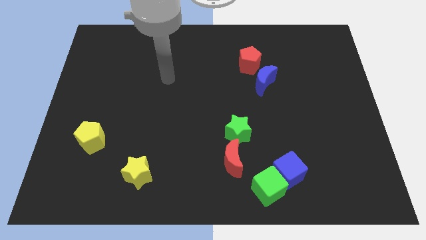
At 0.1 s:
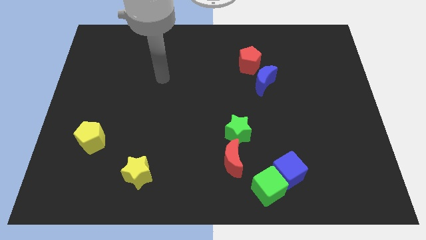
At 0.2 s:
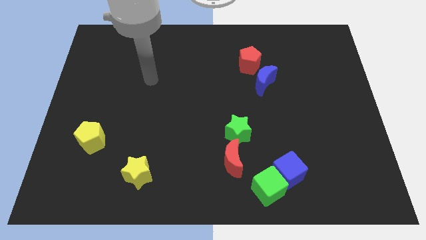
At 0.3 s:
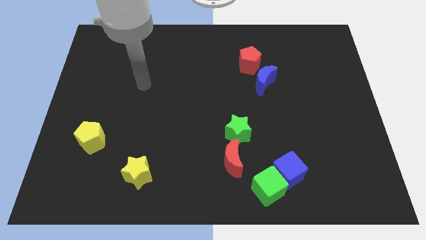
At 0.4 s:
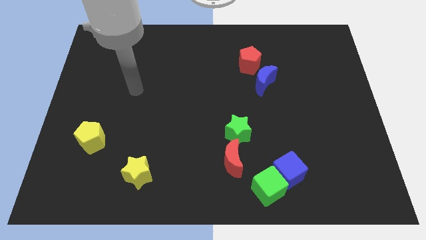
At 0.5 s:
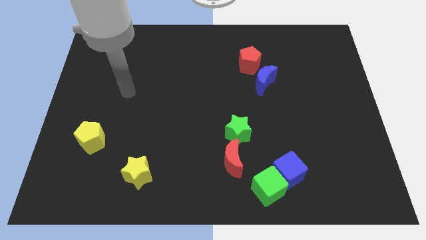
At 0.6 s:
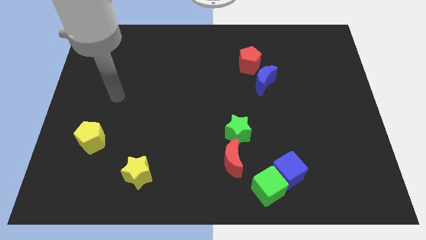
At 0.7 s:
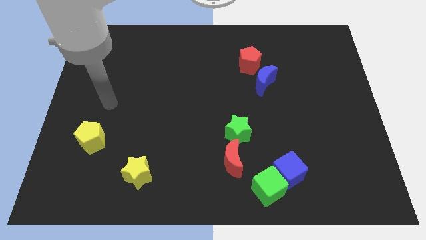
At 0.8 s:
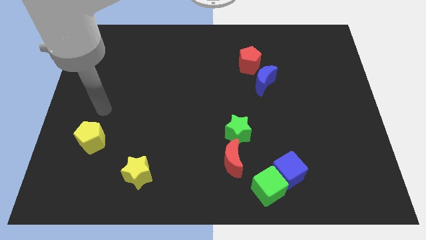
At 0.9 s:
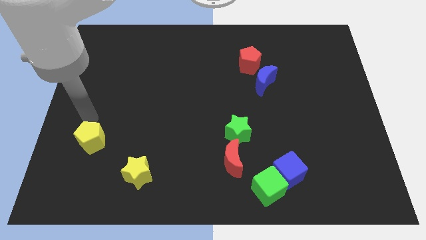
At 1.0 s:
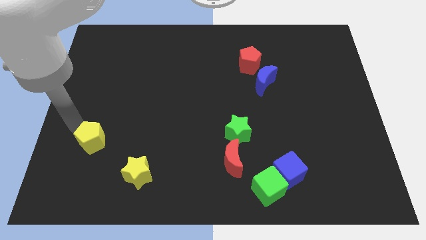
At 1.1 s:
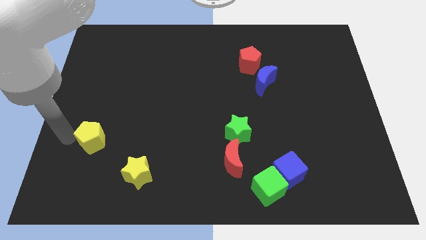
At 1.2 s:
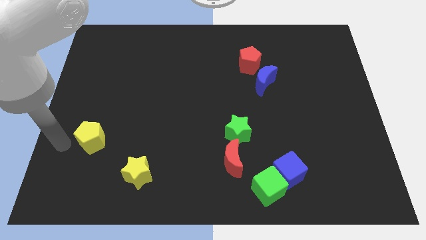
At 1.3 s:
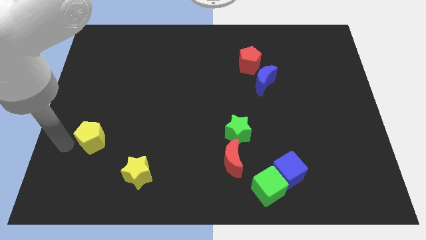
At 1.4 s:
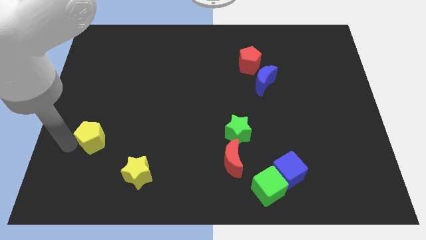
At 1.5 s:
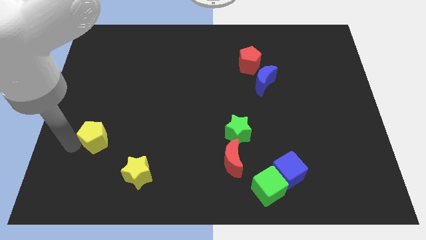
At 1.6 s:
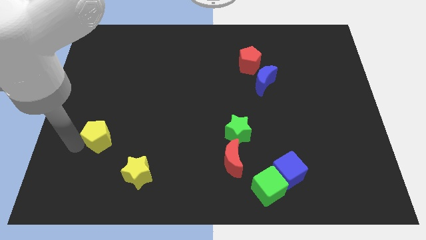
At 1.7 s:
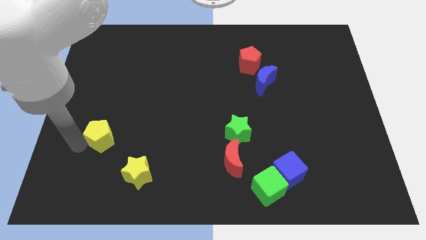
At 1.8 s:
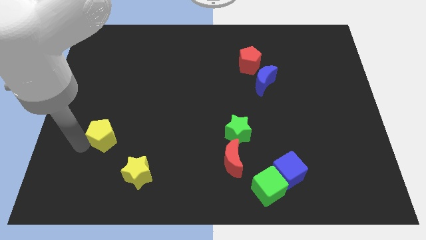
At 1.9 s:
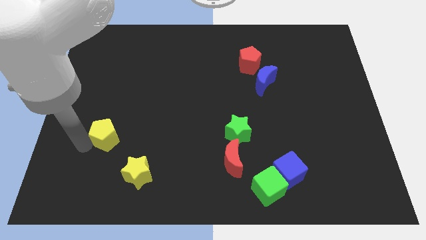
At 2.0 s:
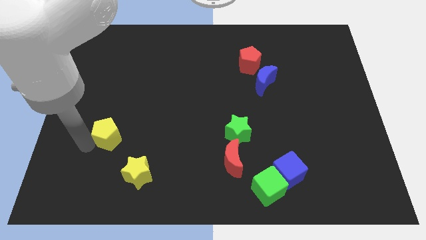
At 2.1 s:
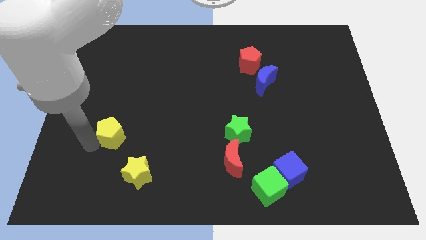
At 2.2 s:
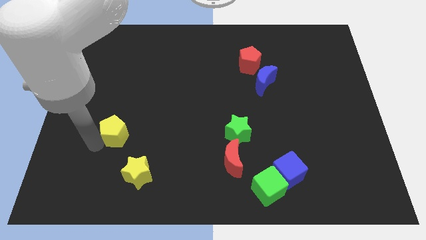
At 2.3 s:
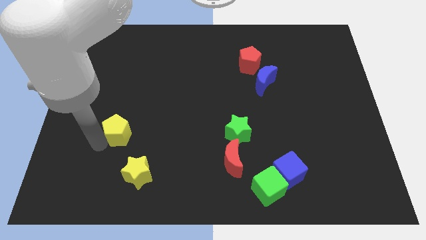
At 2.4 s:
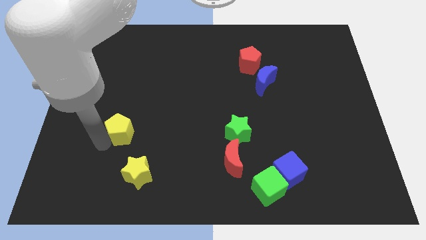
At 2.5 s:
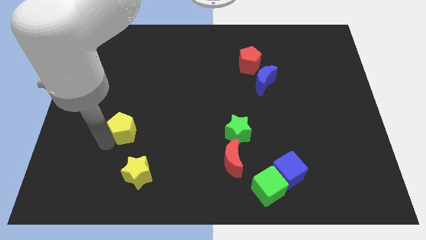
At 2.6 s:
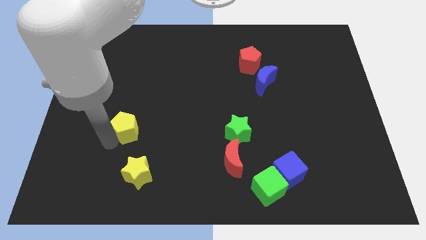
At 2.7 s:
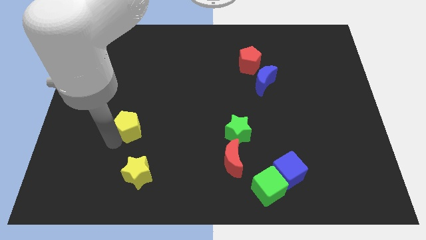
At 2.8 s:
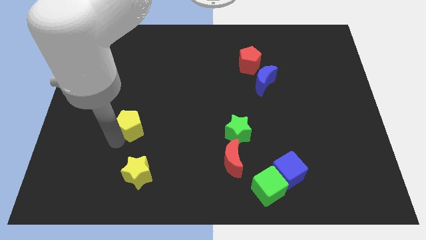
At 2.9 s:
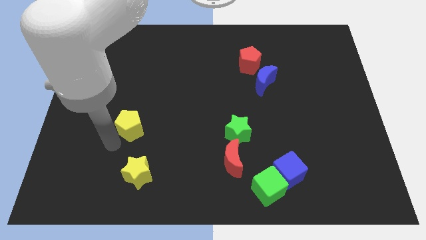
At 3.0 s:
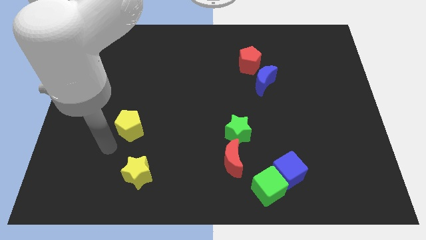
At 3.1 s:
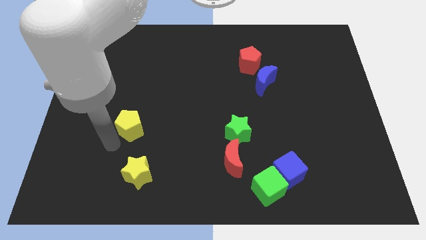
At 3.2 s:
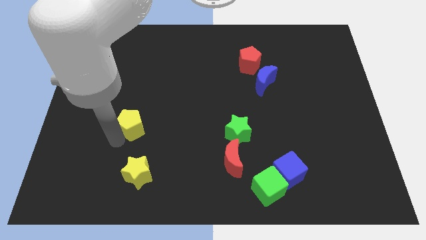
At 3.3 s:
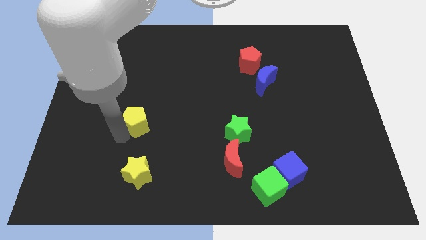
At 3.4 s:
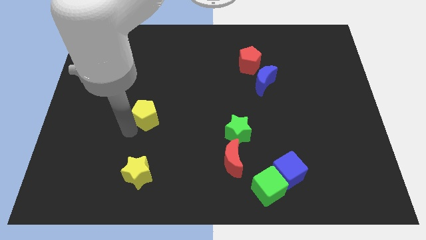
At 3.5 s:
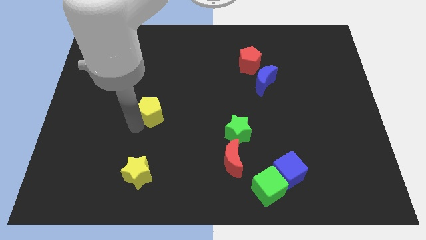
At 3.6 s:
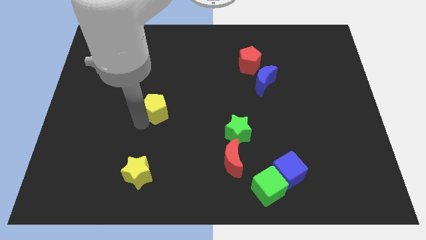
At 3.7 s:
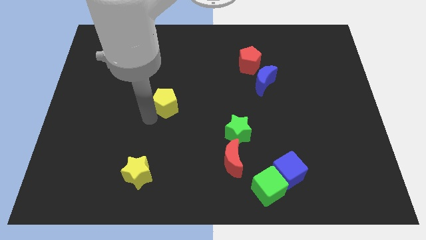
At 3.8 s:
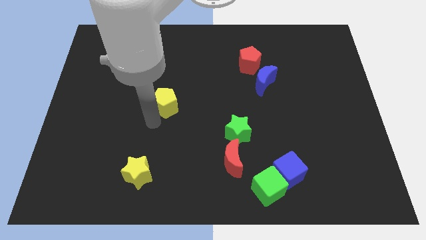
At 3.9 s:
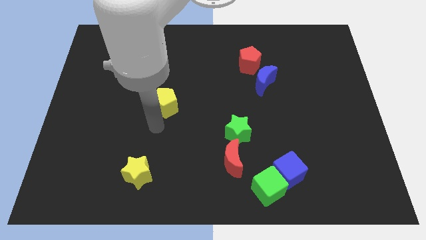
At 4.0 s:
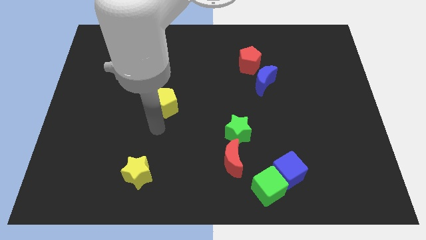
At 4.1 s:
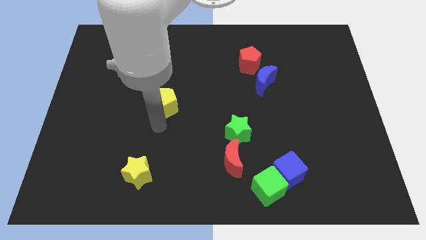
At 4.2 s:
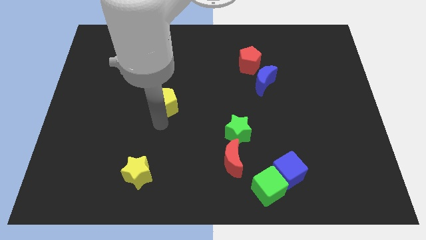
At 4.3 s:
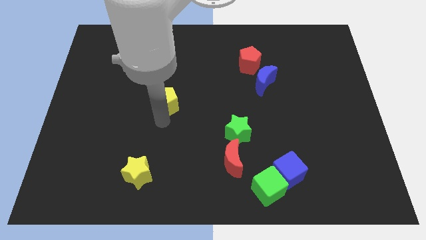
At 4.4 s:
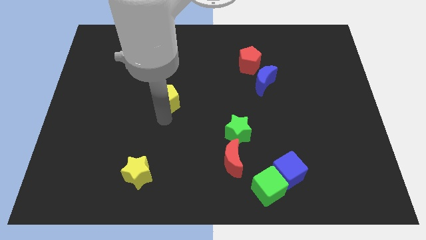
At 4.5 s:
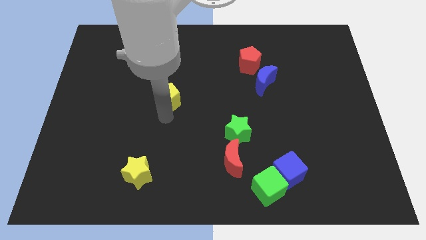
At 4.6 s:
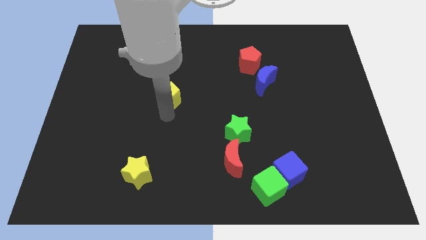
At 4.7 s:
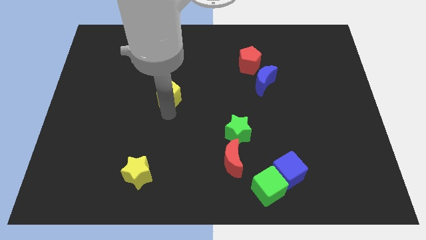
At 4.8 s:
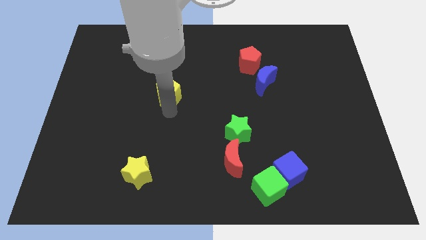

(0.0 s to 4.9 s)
push the yellow pentagon diagonally upwards and right

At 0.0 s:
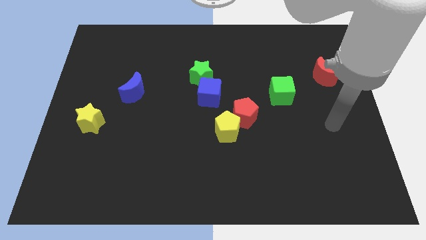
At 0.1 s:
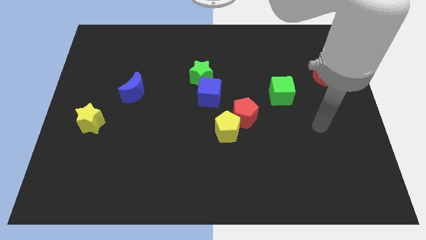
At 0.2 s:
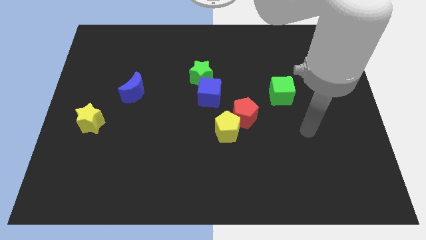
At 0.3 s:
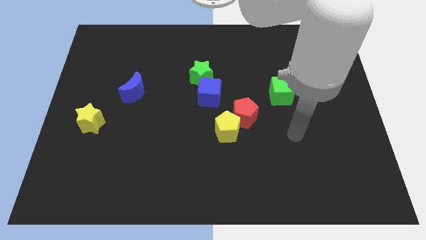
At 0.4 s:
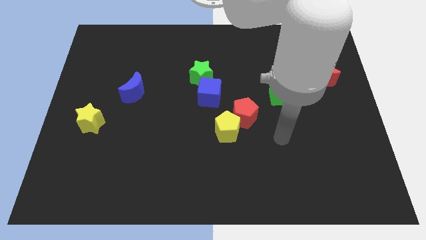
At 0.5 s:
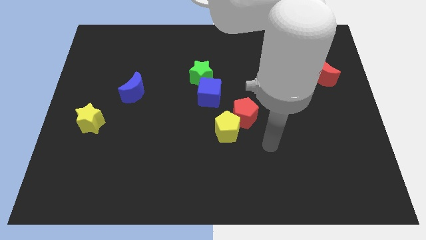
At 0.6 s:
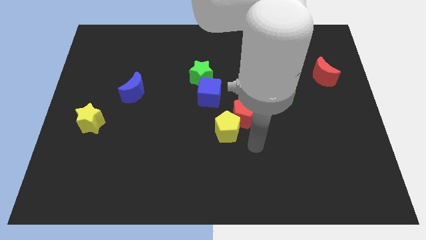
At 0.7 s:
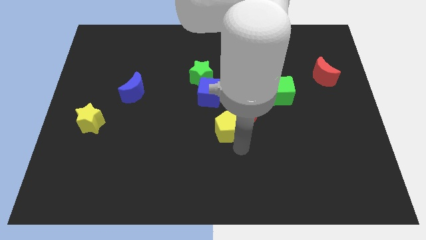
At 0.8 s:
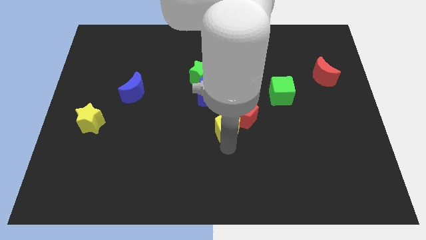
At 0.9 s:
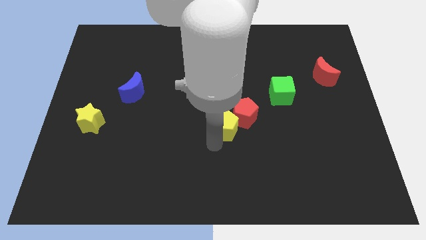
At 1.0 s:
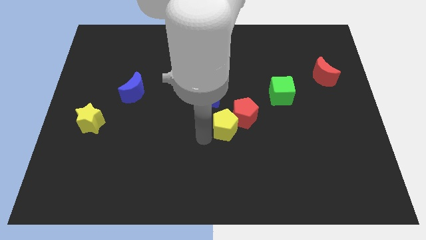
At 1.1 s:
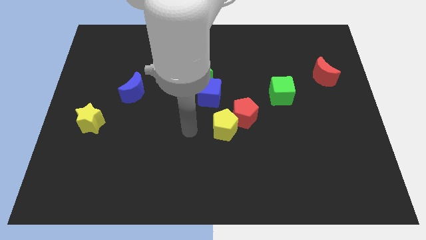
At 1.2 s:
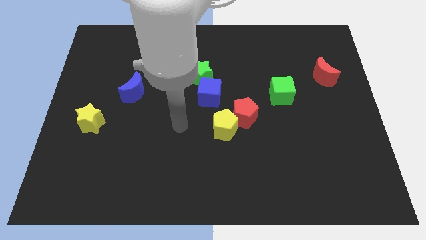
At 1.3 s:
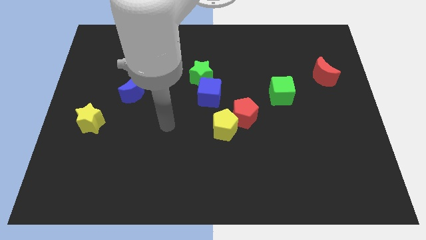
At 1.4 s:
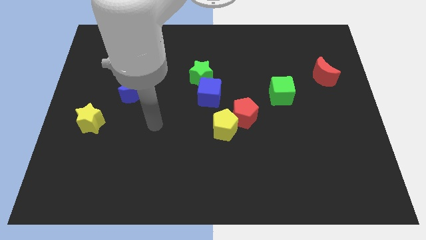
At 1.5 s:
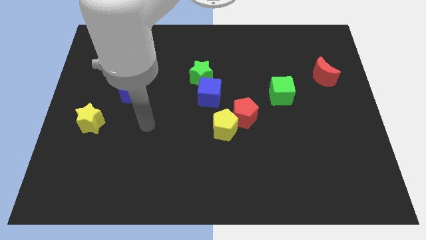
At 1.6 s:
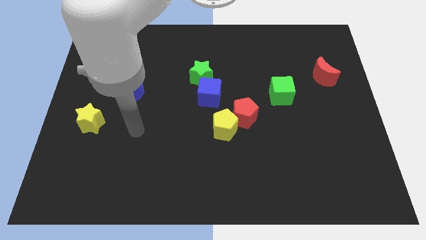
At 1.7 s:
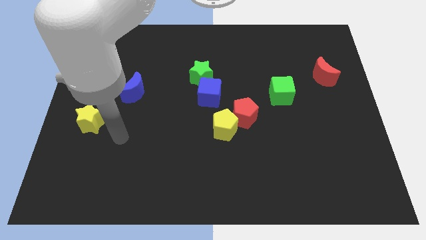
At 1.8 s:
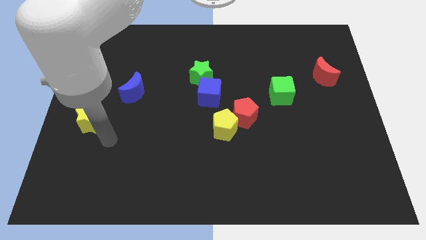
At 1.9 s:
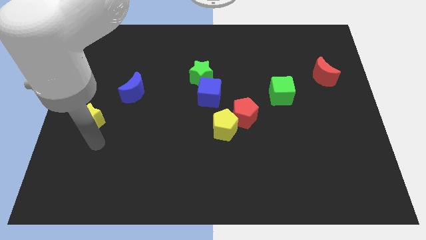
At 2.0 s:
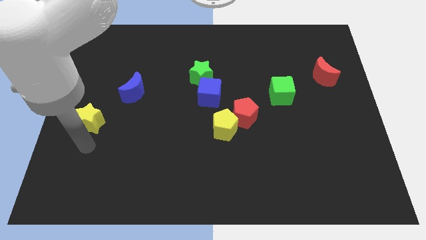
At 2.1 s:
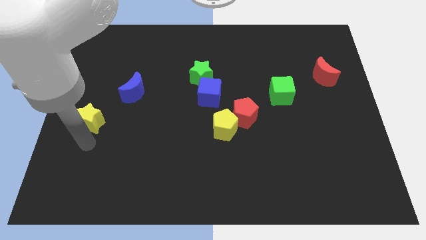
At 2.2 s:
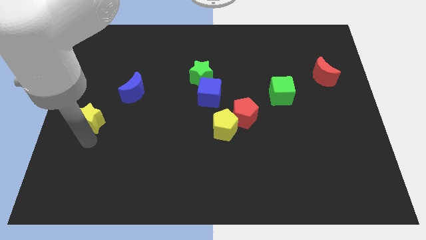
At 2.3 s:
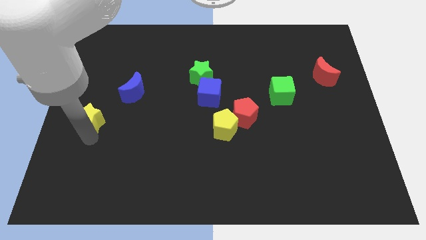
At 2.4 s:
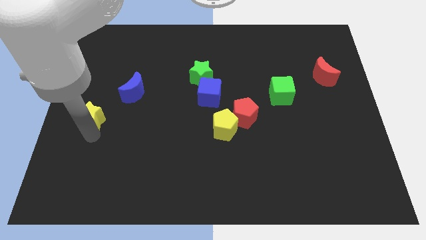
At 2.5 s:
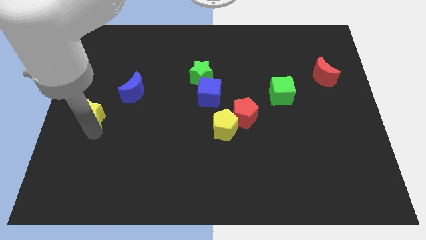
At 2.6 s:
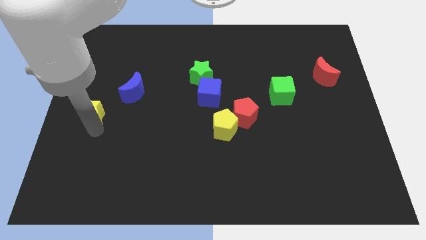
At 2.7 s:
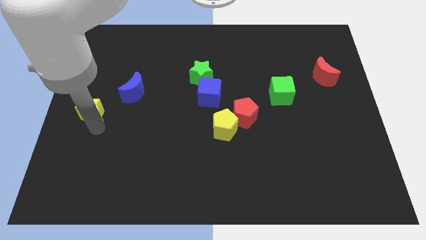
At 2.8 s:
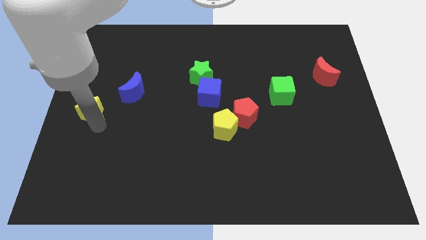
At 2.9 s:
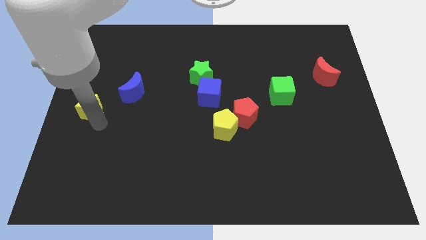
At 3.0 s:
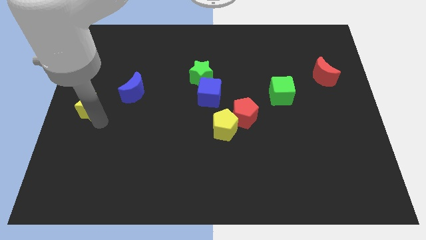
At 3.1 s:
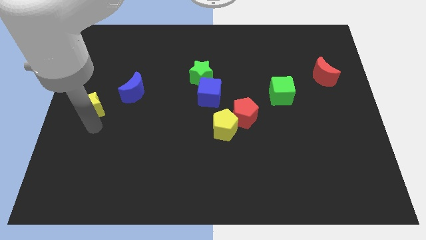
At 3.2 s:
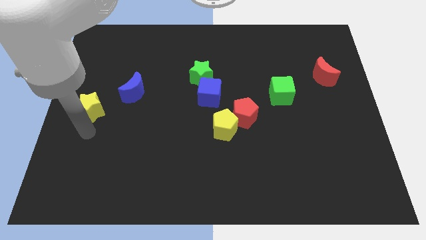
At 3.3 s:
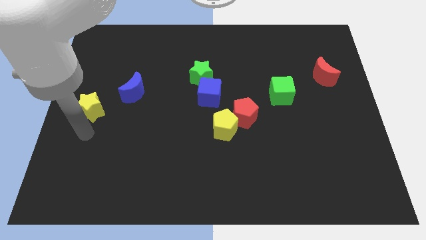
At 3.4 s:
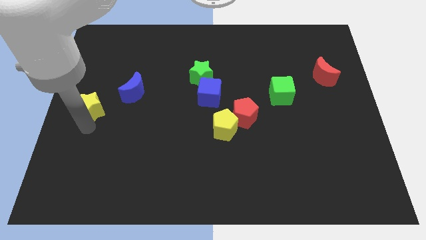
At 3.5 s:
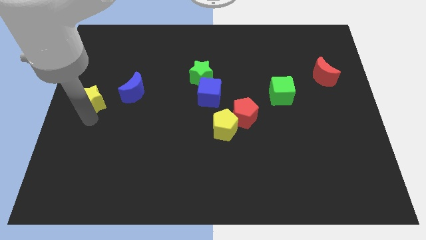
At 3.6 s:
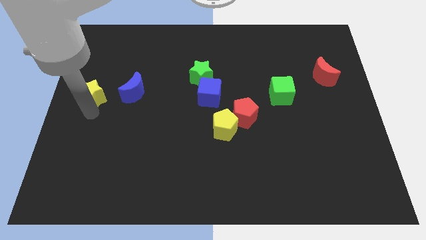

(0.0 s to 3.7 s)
slightly push the yellow star upwards
